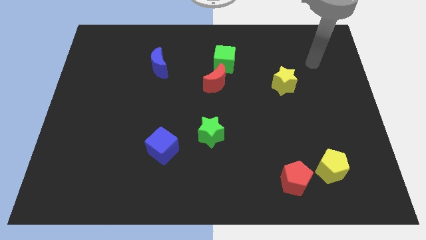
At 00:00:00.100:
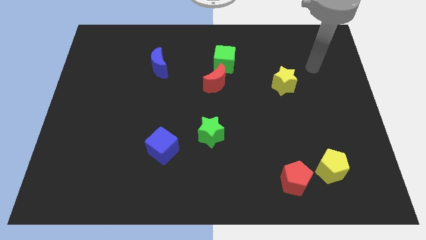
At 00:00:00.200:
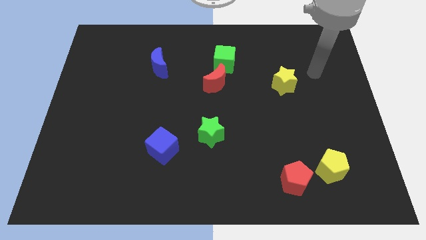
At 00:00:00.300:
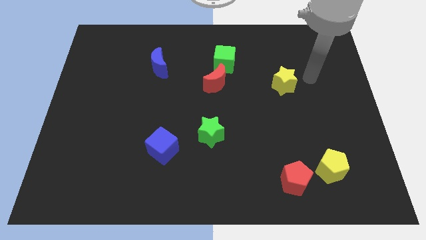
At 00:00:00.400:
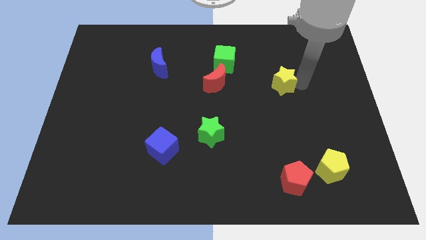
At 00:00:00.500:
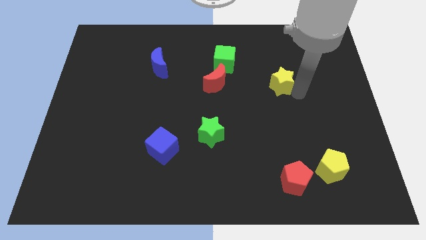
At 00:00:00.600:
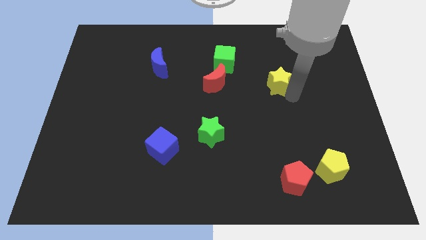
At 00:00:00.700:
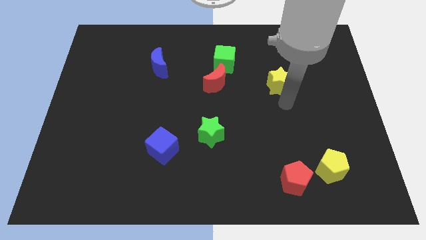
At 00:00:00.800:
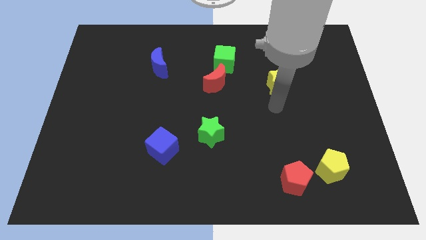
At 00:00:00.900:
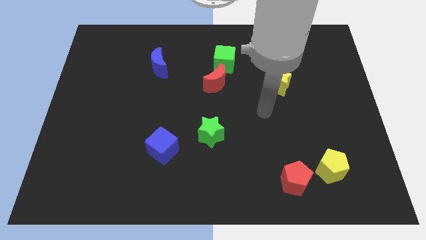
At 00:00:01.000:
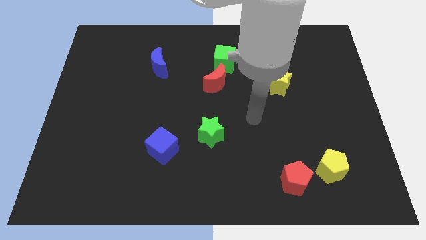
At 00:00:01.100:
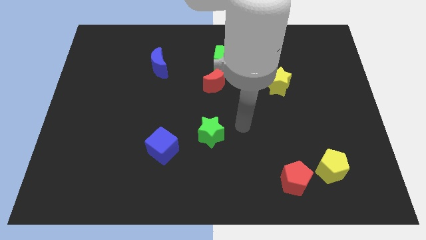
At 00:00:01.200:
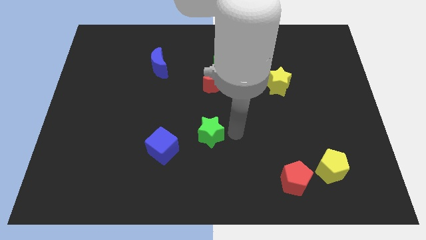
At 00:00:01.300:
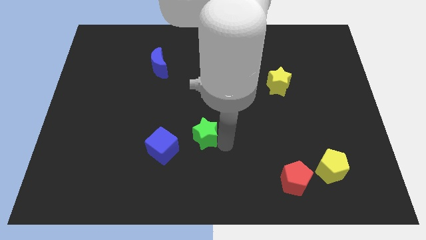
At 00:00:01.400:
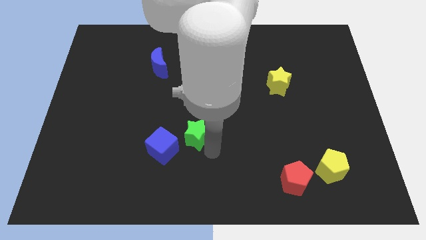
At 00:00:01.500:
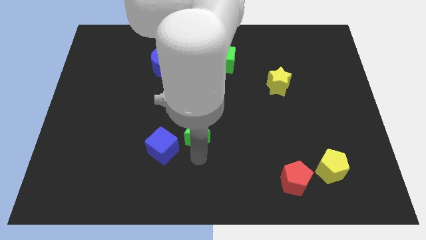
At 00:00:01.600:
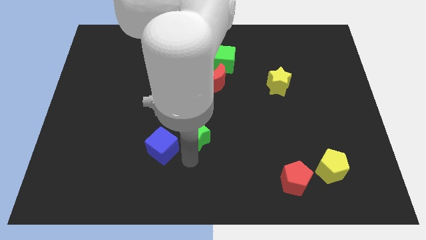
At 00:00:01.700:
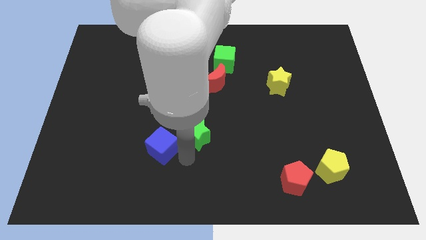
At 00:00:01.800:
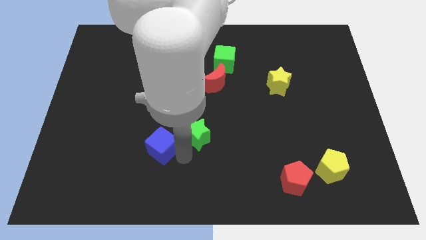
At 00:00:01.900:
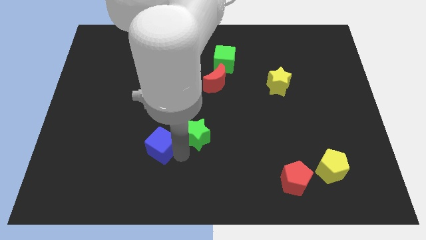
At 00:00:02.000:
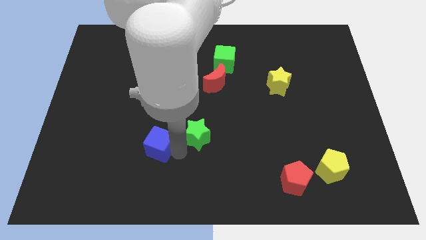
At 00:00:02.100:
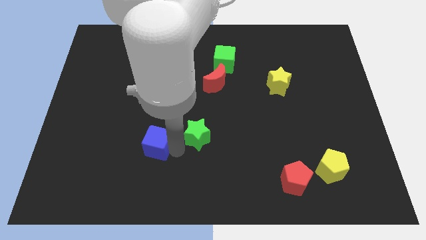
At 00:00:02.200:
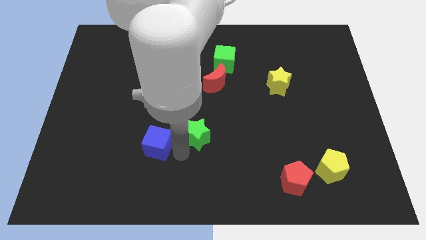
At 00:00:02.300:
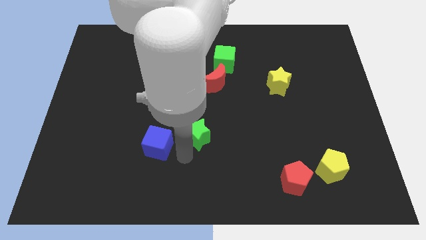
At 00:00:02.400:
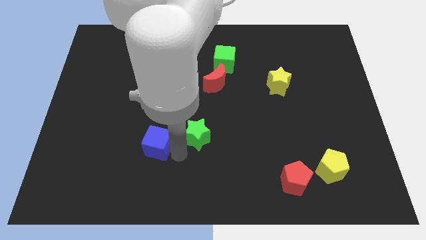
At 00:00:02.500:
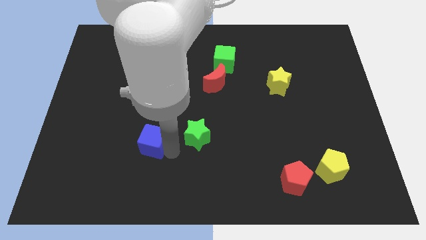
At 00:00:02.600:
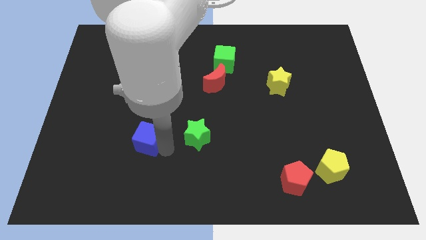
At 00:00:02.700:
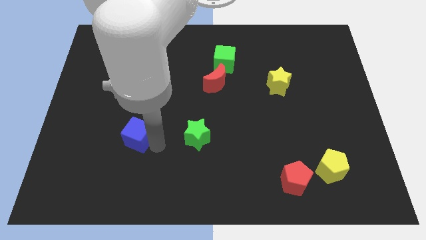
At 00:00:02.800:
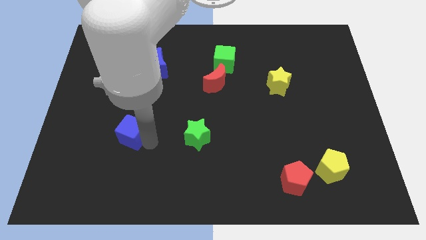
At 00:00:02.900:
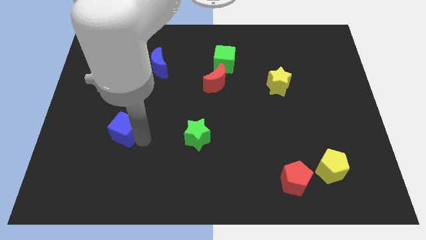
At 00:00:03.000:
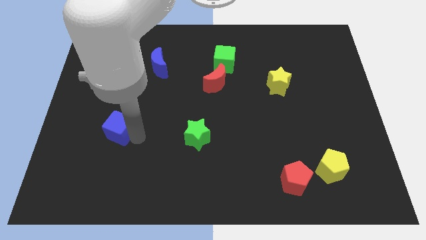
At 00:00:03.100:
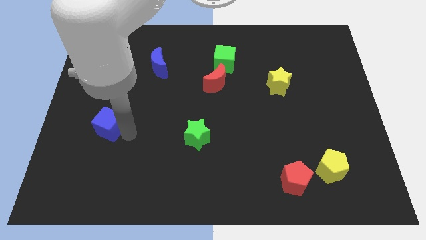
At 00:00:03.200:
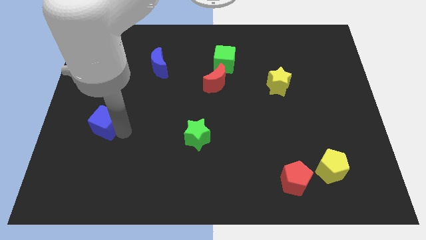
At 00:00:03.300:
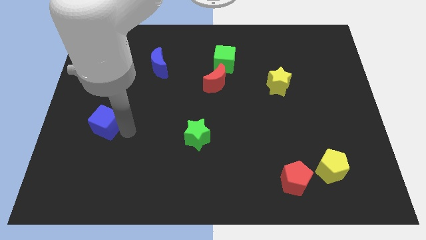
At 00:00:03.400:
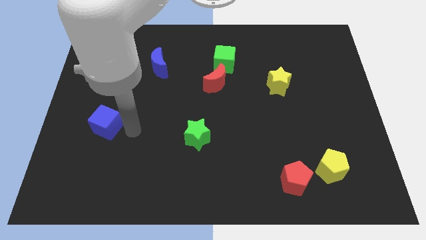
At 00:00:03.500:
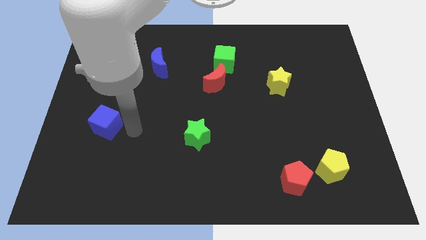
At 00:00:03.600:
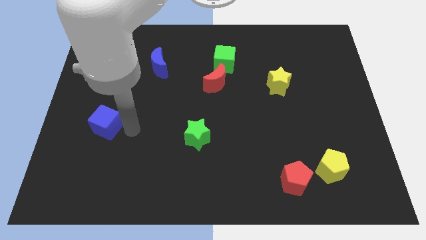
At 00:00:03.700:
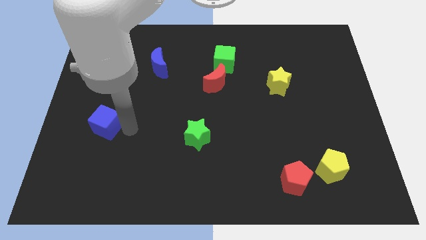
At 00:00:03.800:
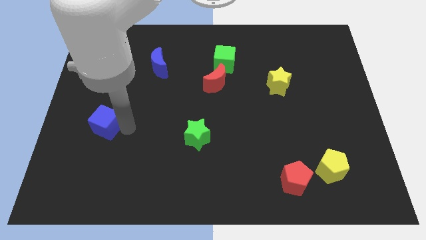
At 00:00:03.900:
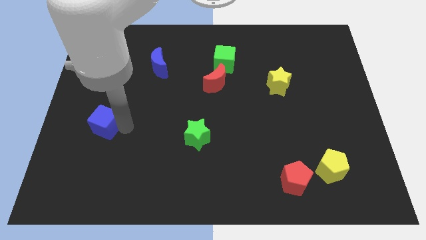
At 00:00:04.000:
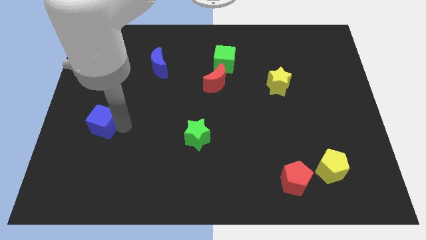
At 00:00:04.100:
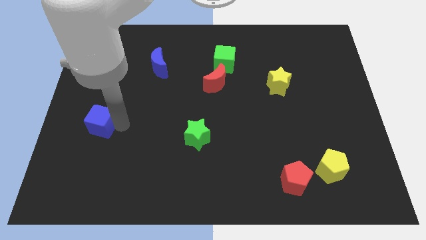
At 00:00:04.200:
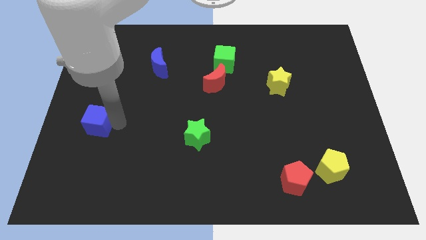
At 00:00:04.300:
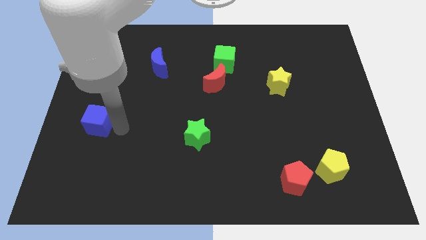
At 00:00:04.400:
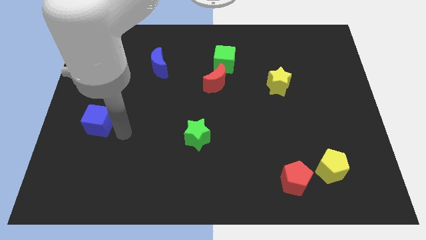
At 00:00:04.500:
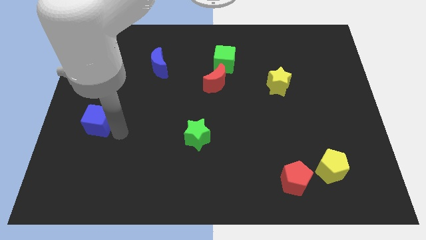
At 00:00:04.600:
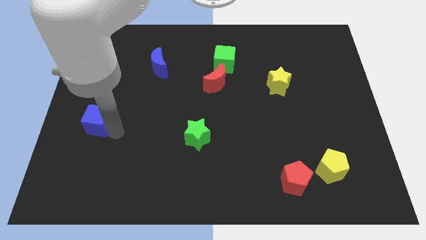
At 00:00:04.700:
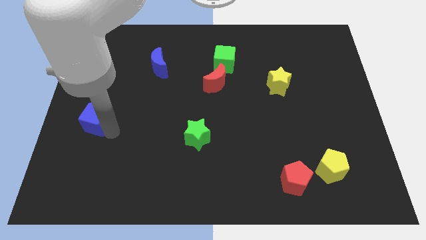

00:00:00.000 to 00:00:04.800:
push the blue cube to the left side

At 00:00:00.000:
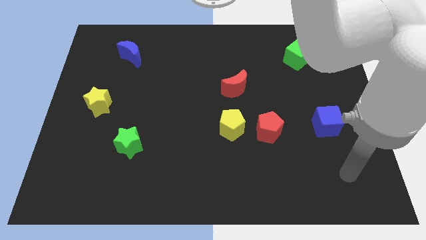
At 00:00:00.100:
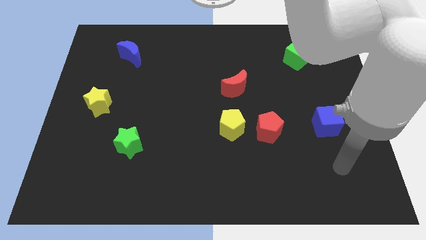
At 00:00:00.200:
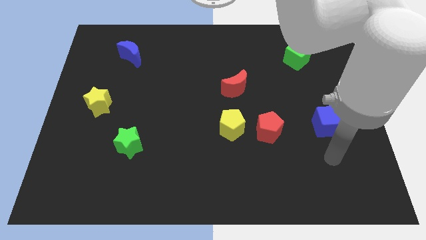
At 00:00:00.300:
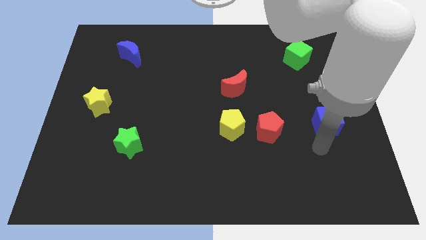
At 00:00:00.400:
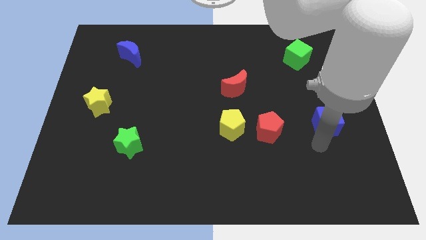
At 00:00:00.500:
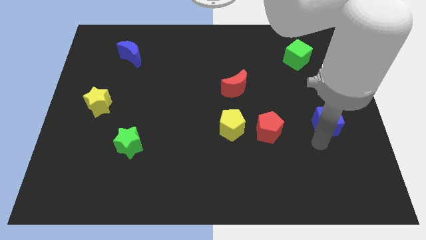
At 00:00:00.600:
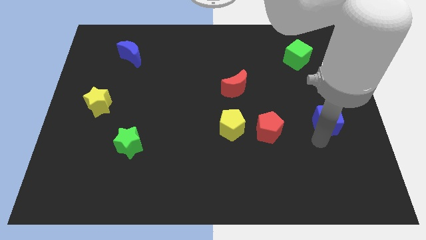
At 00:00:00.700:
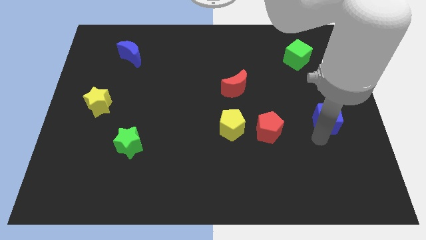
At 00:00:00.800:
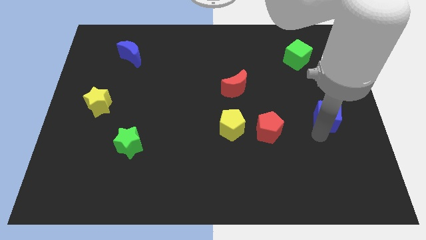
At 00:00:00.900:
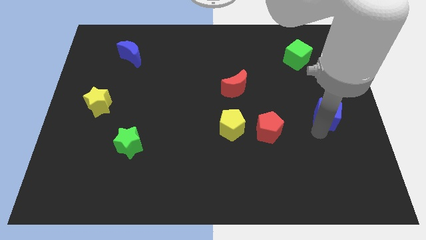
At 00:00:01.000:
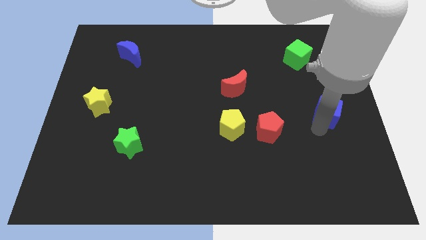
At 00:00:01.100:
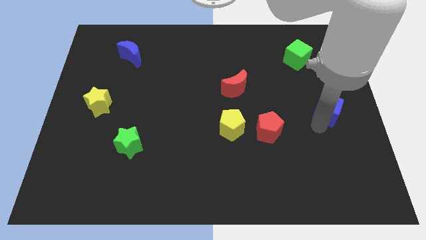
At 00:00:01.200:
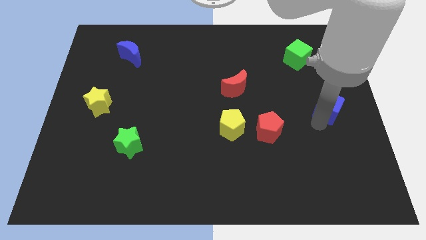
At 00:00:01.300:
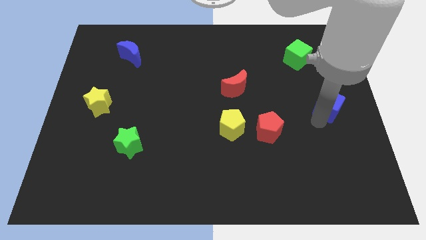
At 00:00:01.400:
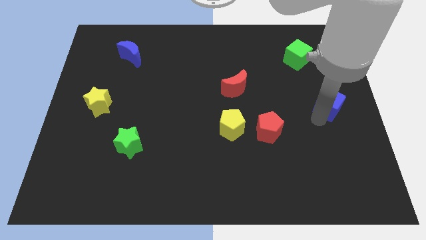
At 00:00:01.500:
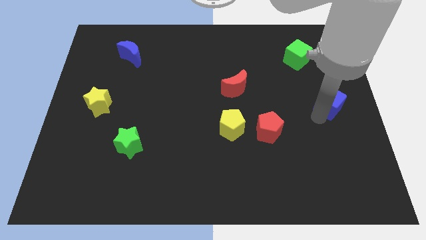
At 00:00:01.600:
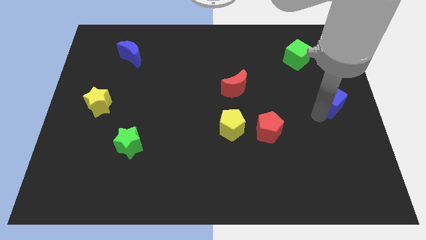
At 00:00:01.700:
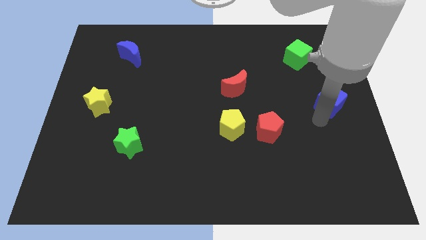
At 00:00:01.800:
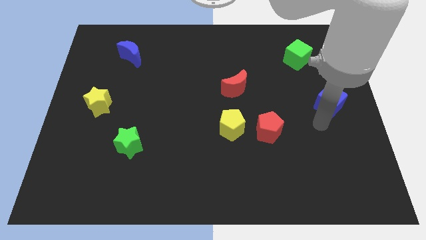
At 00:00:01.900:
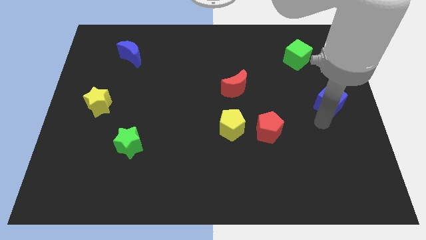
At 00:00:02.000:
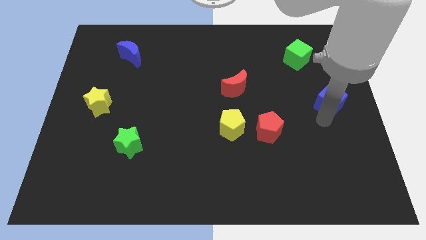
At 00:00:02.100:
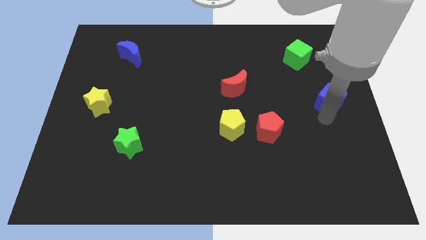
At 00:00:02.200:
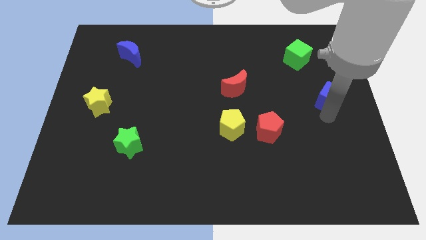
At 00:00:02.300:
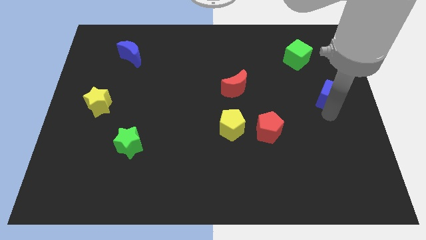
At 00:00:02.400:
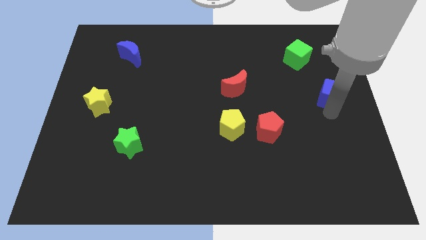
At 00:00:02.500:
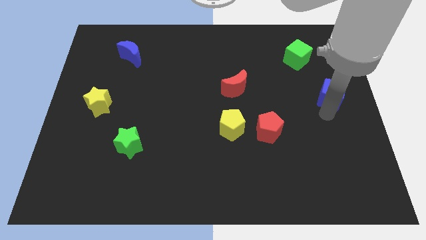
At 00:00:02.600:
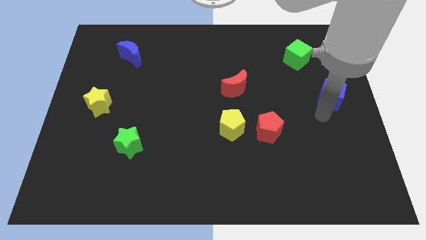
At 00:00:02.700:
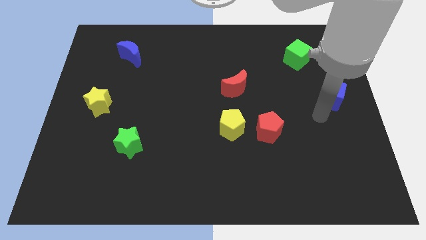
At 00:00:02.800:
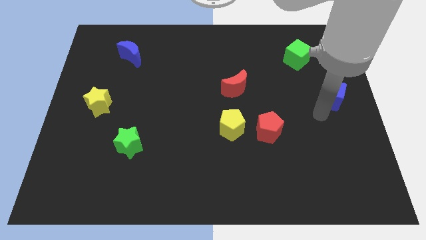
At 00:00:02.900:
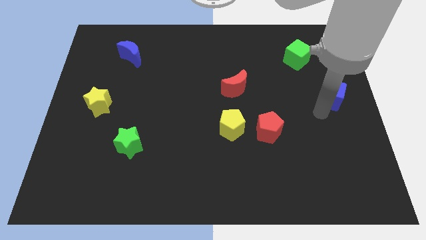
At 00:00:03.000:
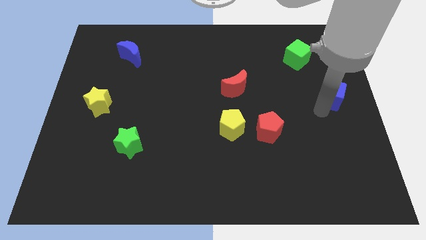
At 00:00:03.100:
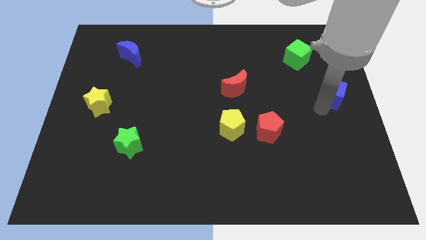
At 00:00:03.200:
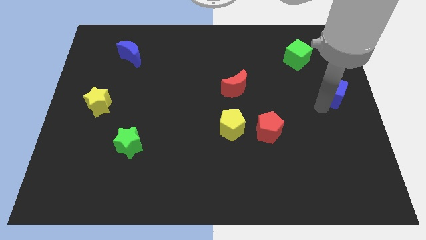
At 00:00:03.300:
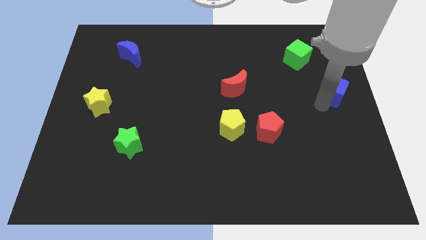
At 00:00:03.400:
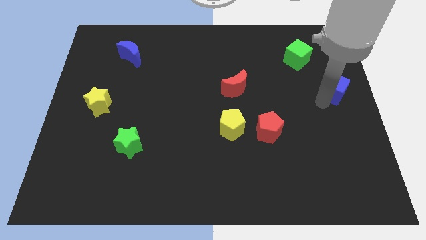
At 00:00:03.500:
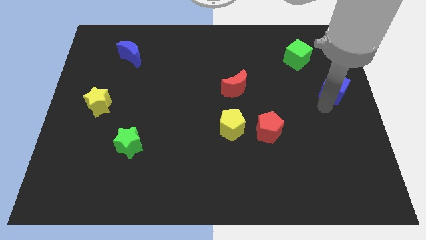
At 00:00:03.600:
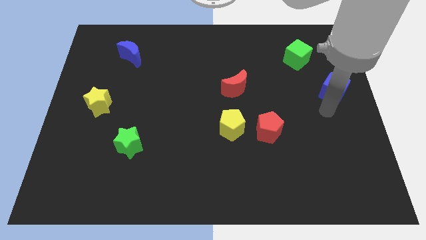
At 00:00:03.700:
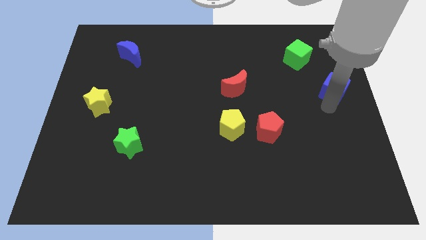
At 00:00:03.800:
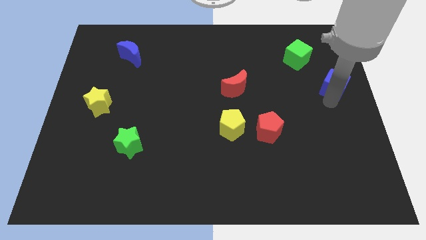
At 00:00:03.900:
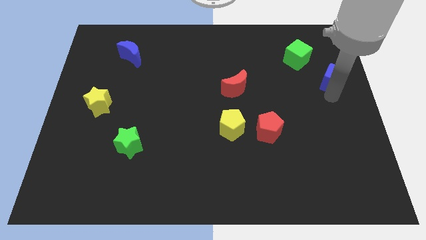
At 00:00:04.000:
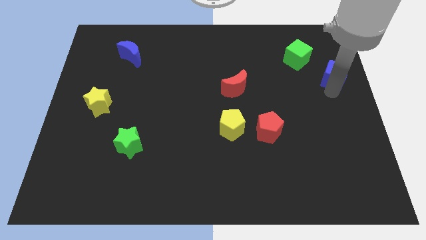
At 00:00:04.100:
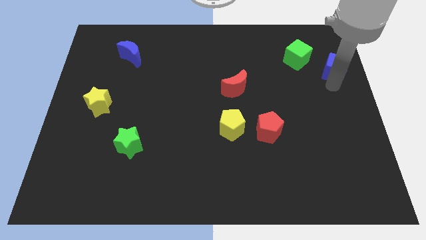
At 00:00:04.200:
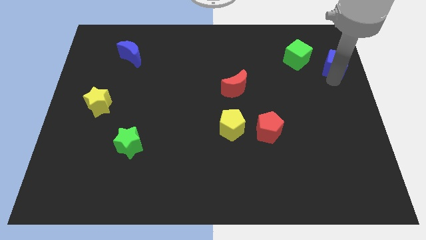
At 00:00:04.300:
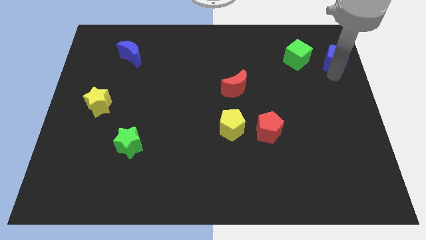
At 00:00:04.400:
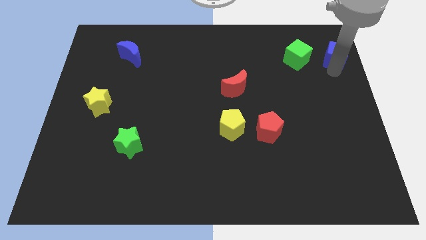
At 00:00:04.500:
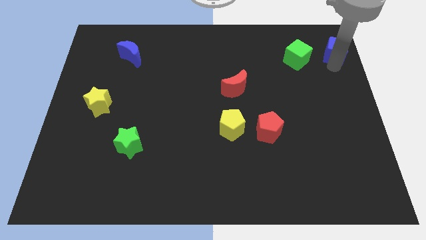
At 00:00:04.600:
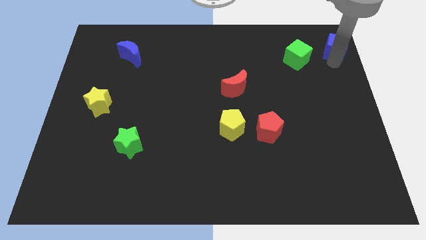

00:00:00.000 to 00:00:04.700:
put the blue cube to the top right of the board
